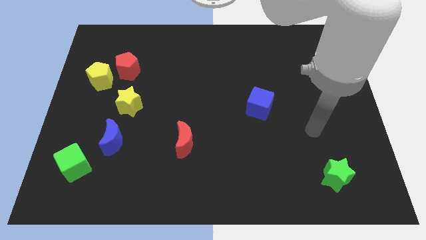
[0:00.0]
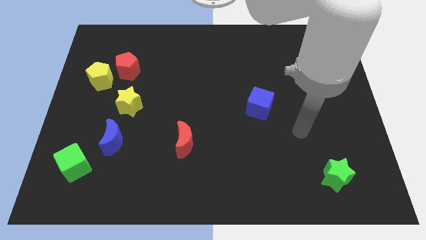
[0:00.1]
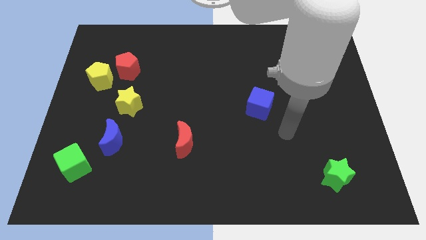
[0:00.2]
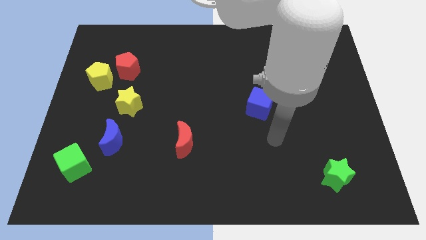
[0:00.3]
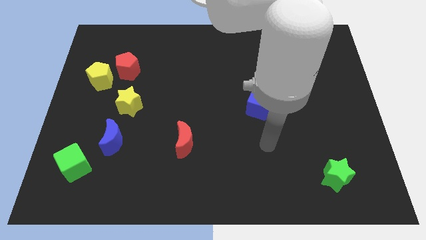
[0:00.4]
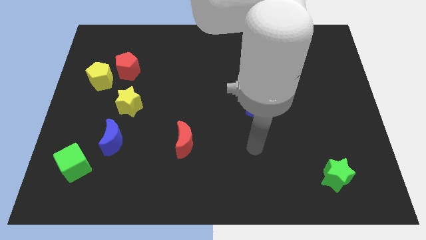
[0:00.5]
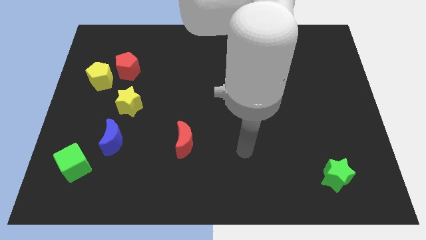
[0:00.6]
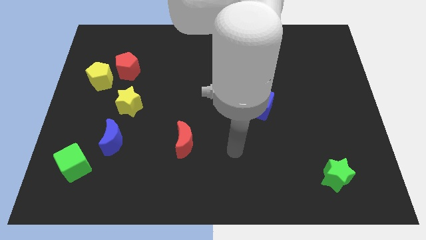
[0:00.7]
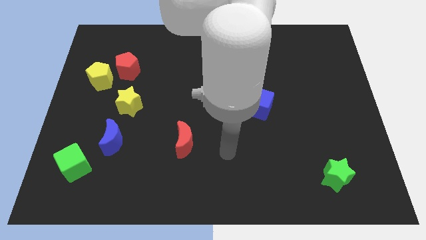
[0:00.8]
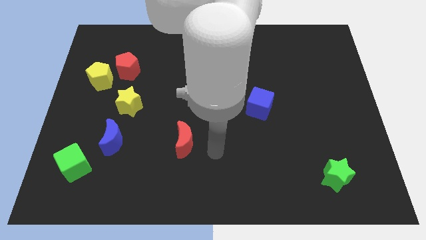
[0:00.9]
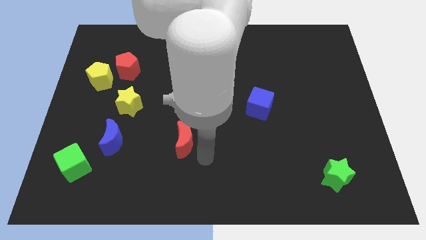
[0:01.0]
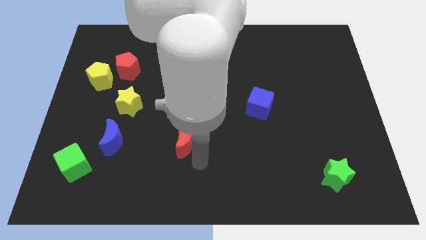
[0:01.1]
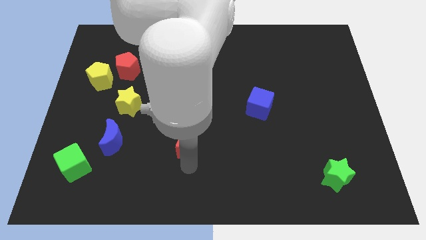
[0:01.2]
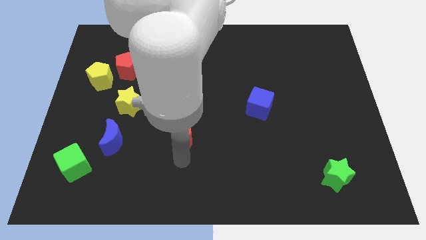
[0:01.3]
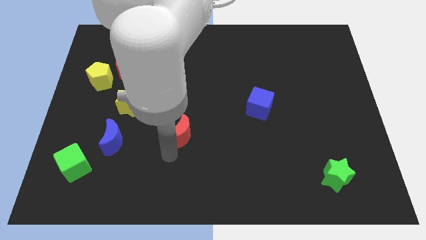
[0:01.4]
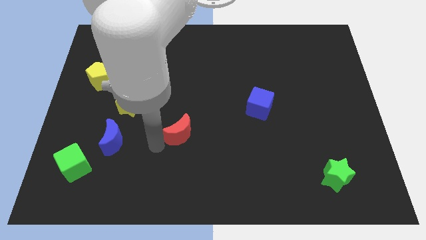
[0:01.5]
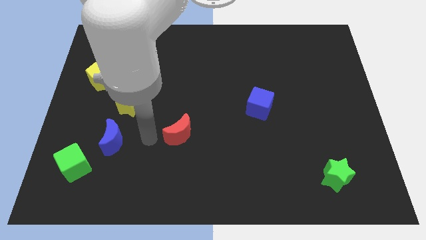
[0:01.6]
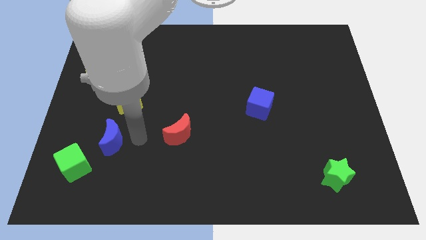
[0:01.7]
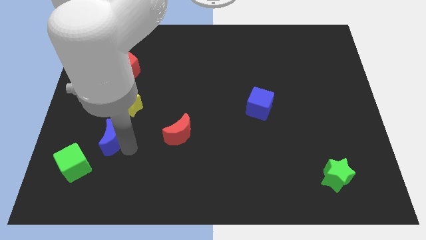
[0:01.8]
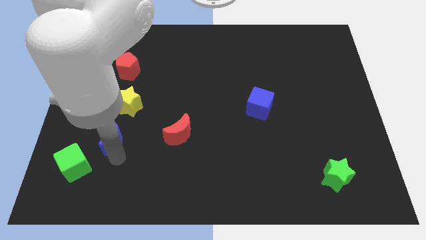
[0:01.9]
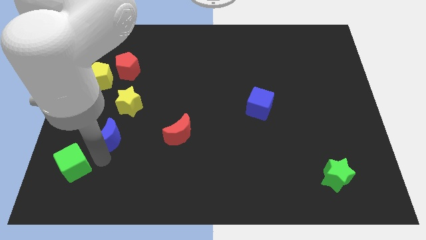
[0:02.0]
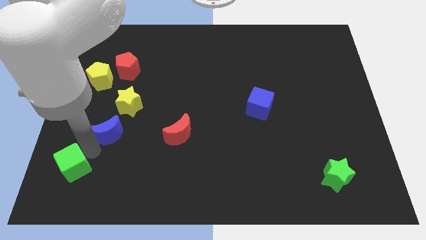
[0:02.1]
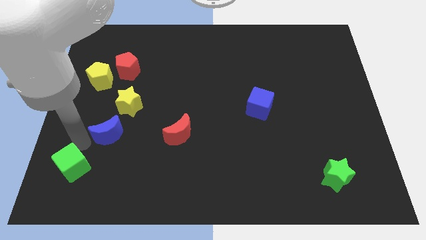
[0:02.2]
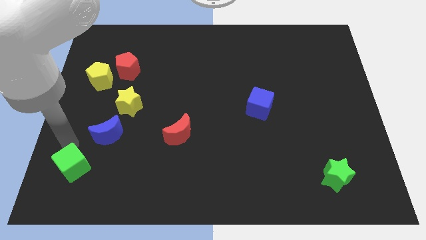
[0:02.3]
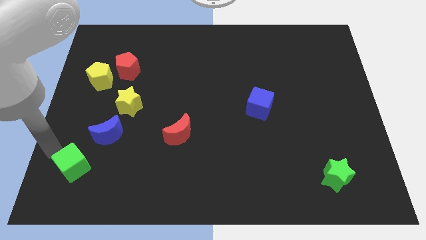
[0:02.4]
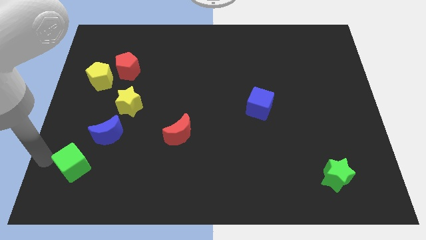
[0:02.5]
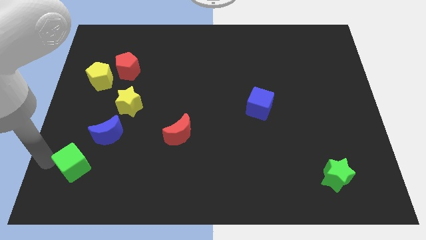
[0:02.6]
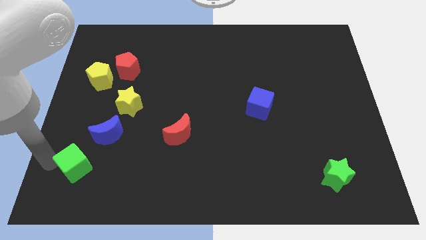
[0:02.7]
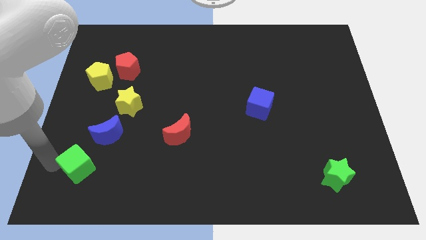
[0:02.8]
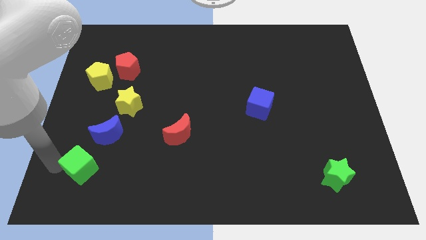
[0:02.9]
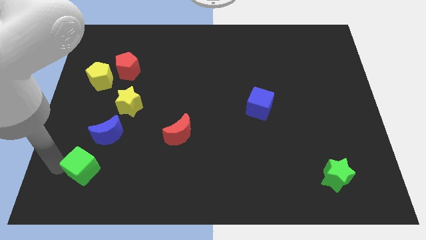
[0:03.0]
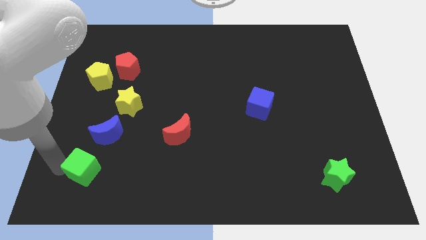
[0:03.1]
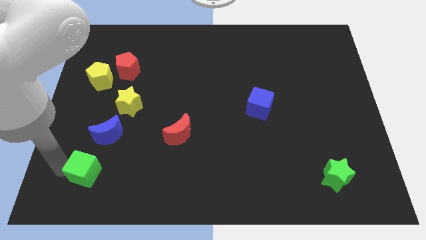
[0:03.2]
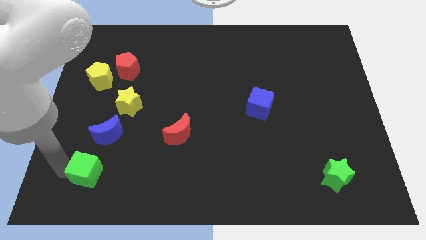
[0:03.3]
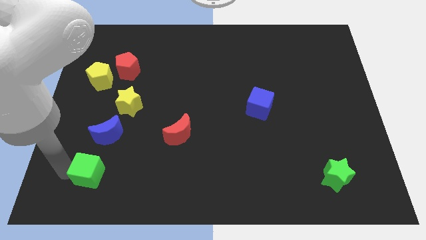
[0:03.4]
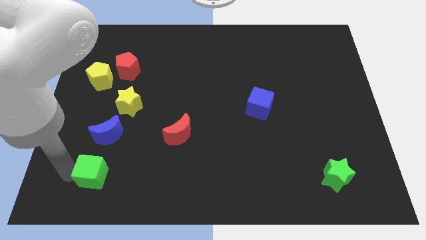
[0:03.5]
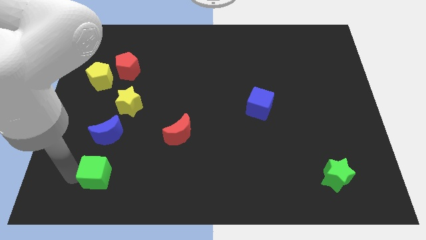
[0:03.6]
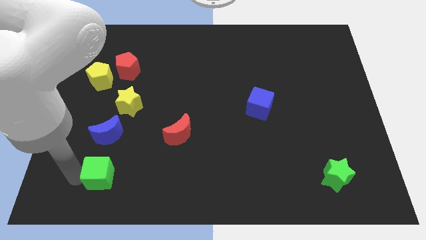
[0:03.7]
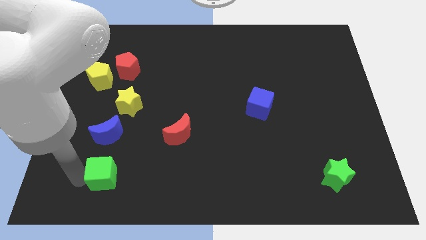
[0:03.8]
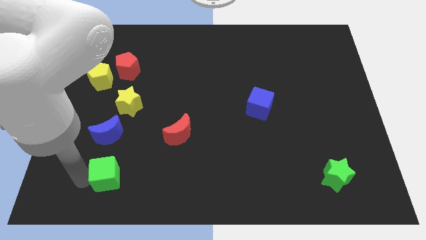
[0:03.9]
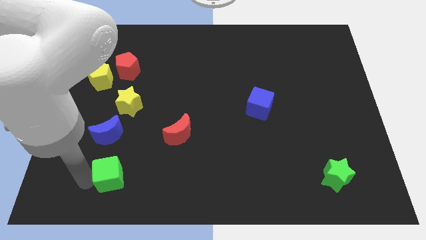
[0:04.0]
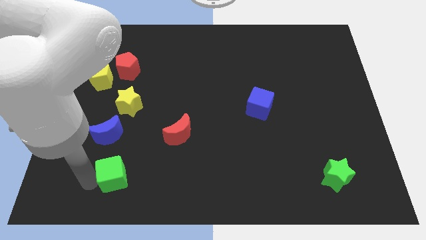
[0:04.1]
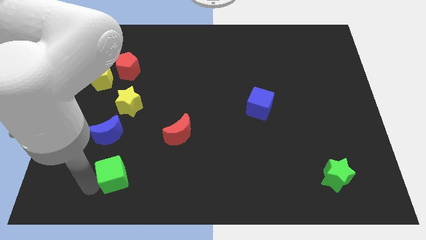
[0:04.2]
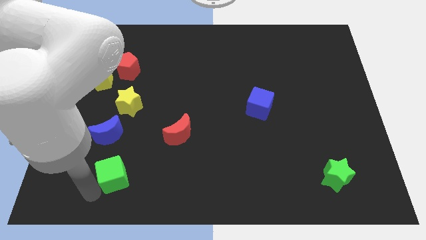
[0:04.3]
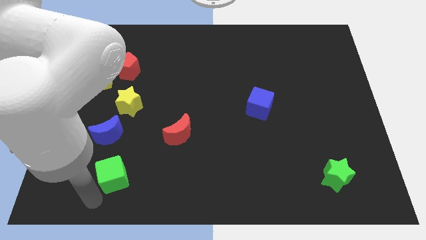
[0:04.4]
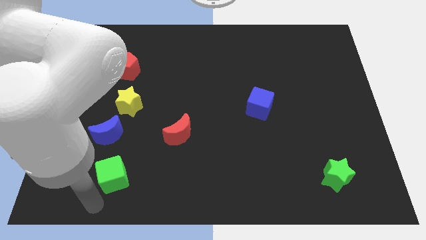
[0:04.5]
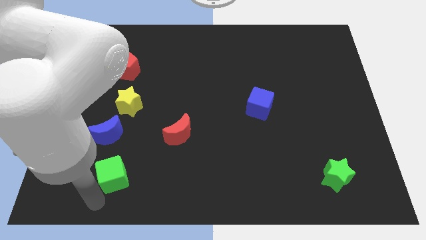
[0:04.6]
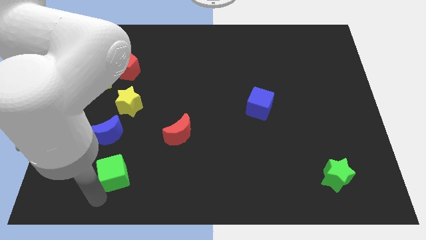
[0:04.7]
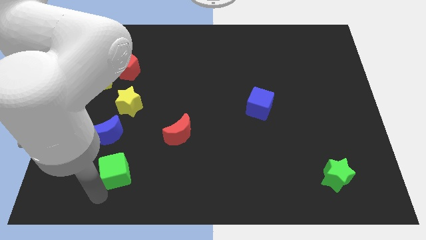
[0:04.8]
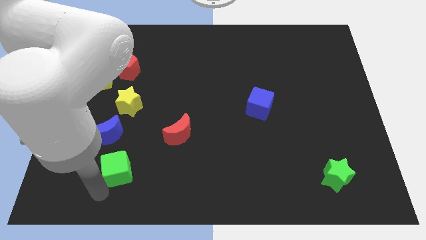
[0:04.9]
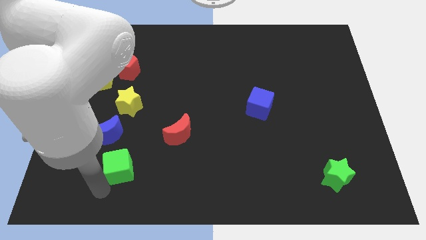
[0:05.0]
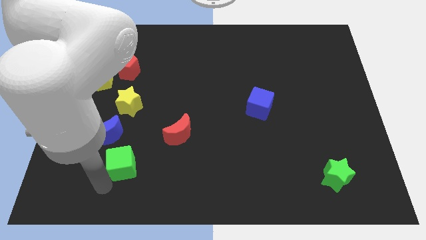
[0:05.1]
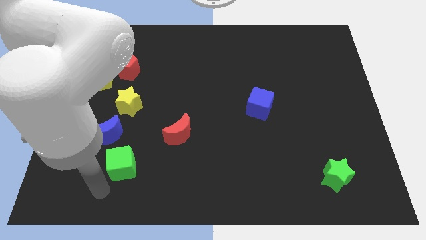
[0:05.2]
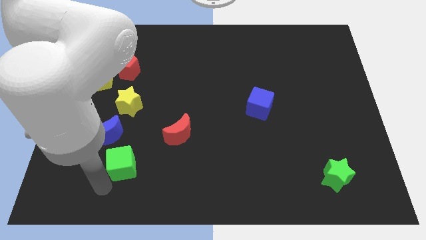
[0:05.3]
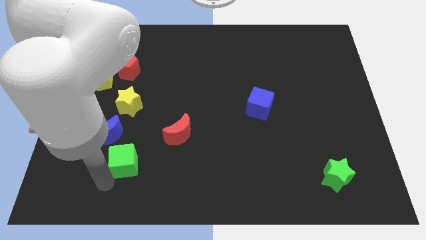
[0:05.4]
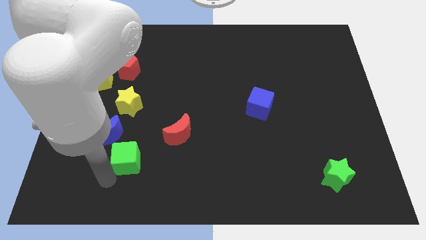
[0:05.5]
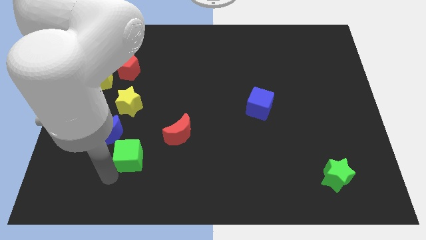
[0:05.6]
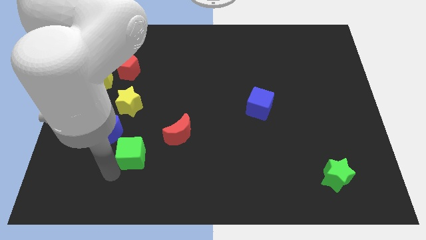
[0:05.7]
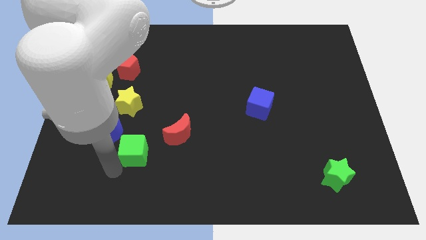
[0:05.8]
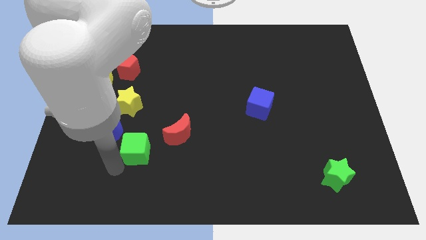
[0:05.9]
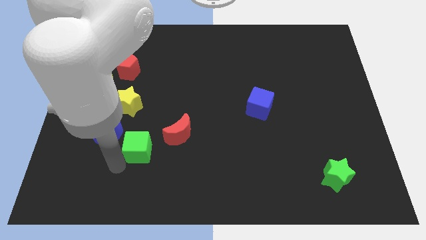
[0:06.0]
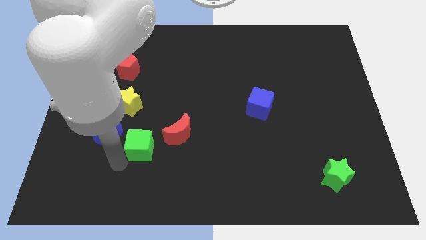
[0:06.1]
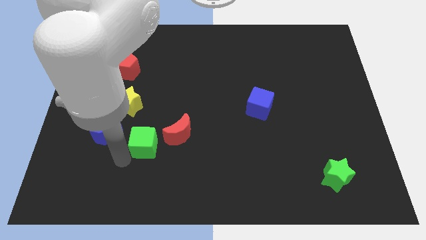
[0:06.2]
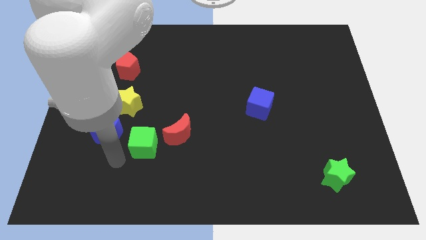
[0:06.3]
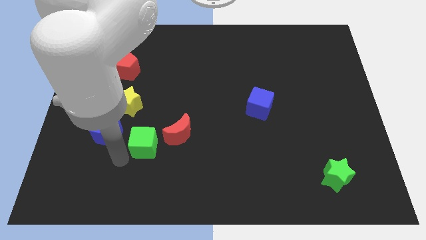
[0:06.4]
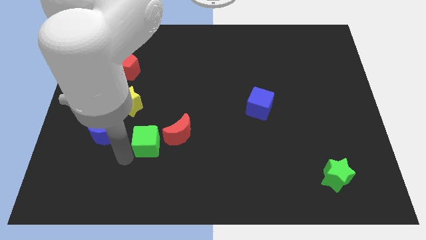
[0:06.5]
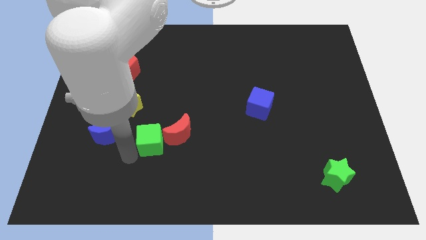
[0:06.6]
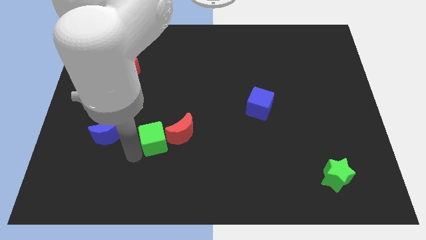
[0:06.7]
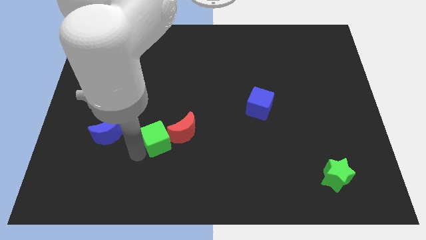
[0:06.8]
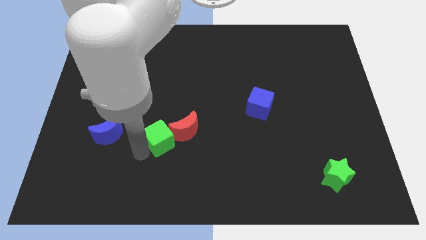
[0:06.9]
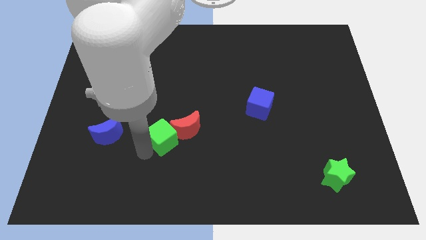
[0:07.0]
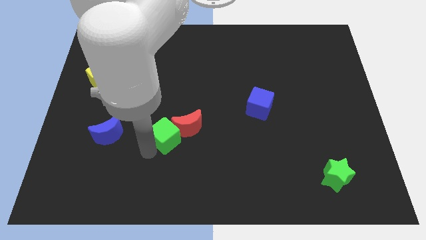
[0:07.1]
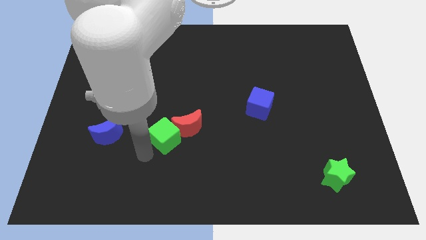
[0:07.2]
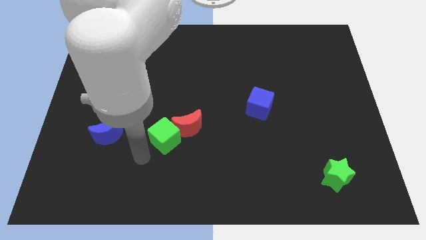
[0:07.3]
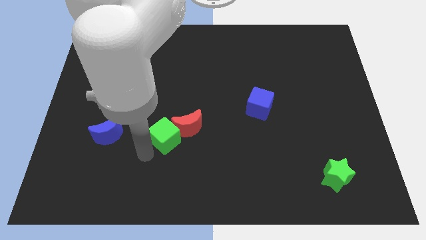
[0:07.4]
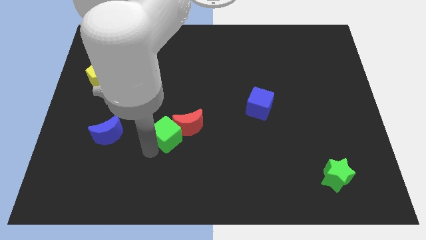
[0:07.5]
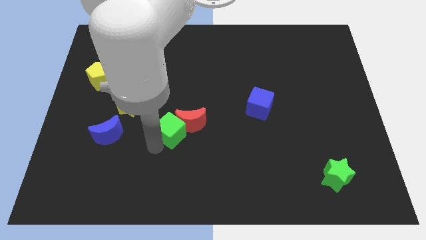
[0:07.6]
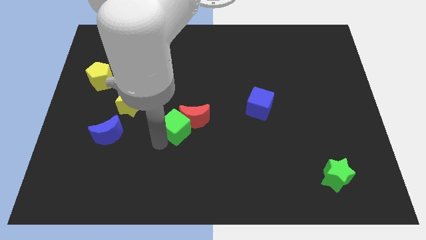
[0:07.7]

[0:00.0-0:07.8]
move the green cube to the middle

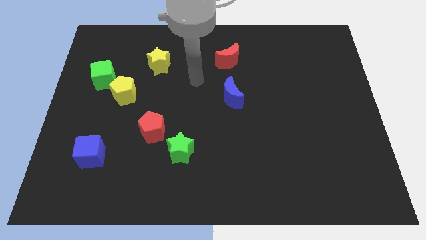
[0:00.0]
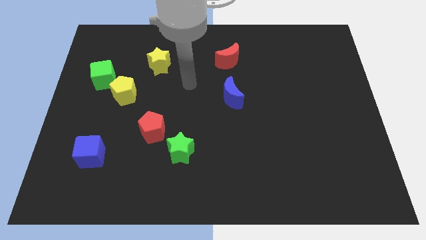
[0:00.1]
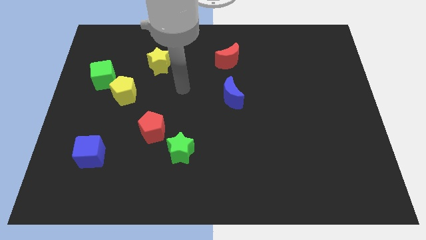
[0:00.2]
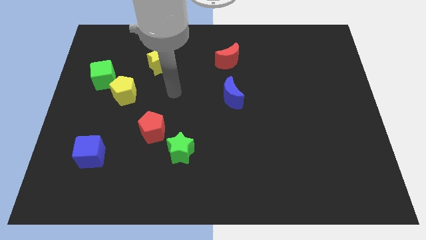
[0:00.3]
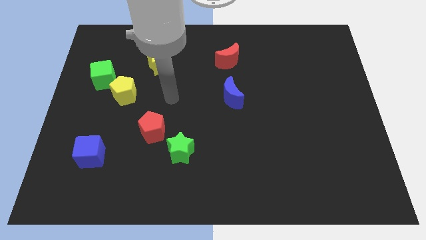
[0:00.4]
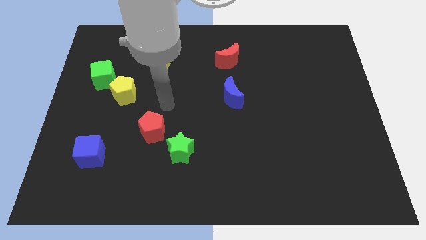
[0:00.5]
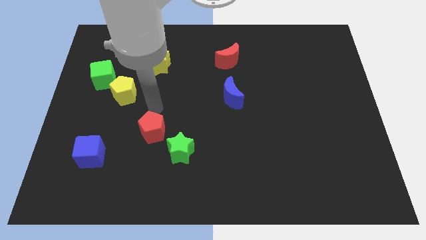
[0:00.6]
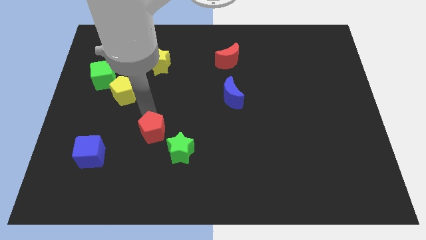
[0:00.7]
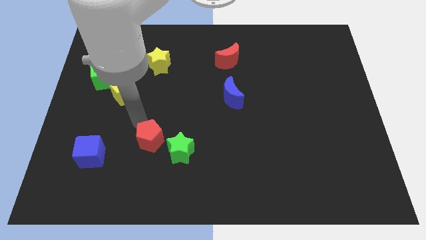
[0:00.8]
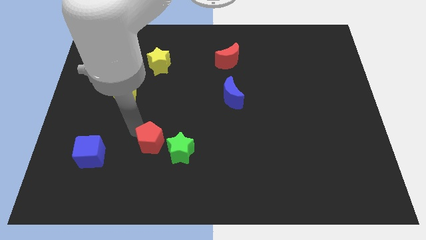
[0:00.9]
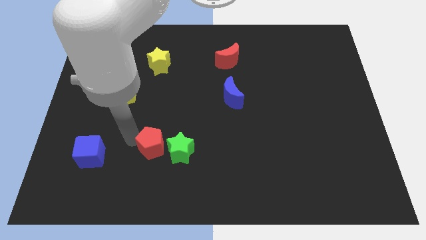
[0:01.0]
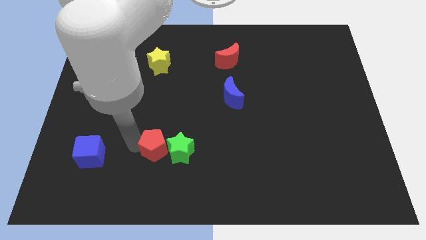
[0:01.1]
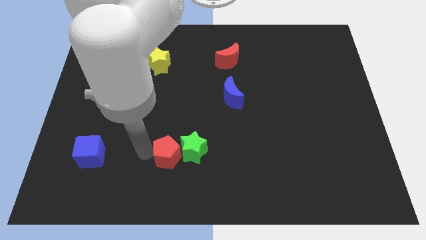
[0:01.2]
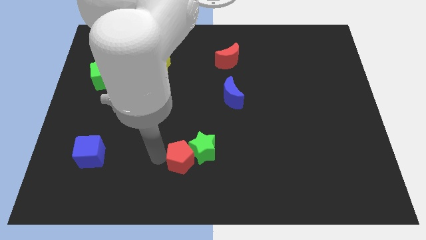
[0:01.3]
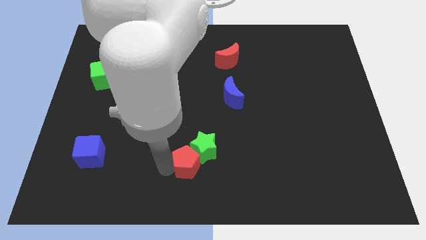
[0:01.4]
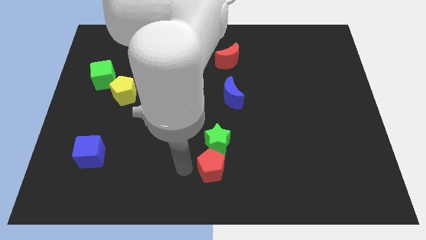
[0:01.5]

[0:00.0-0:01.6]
put the green star to the middle
